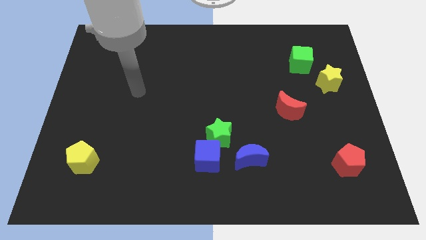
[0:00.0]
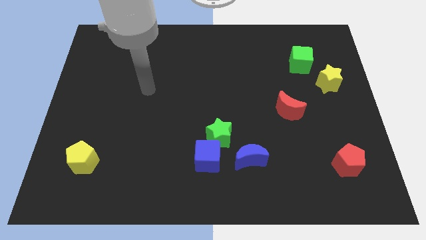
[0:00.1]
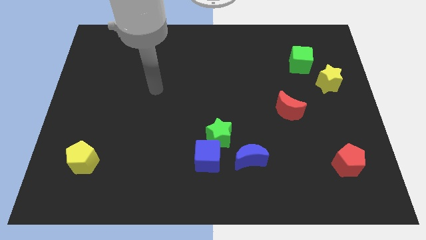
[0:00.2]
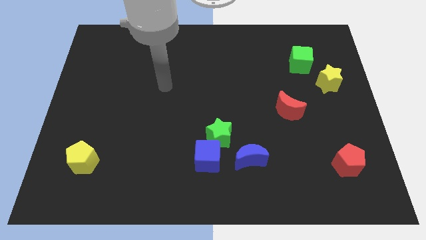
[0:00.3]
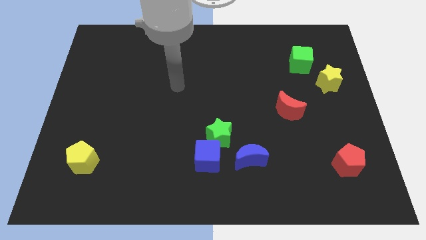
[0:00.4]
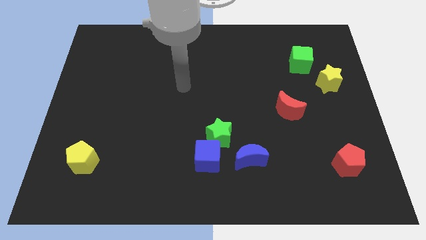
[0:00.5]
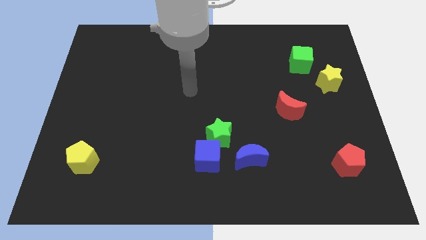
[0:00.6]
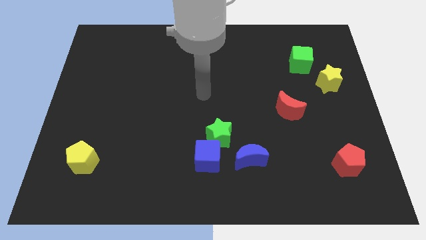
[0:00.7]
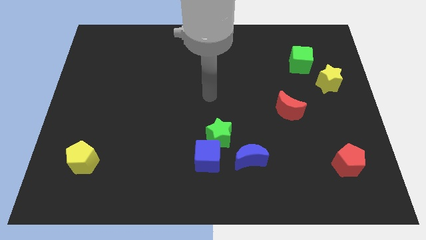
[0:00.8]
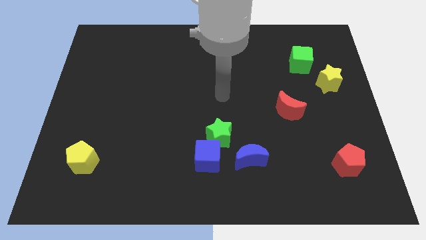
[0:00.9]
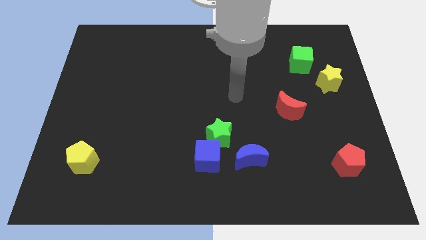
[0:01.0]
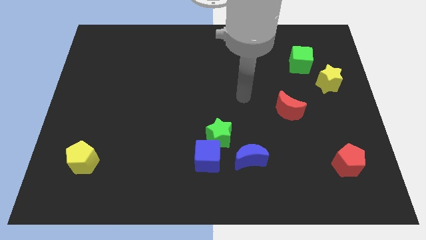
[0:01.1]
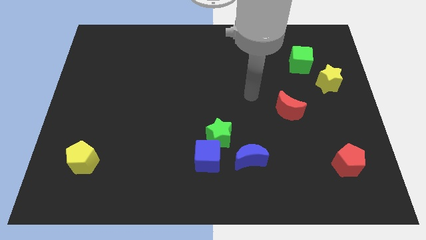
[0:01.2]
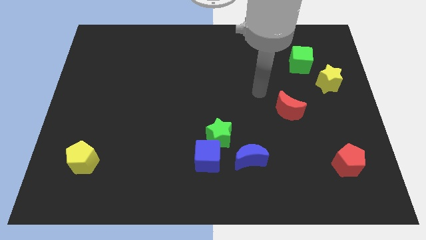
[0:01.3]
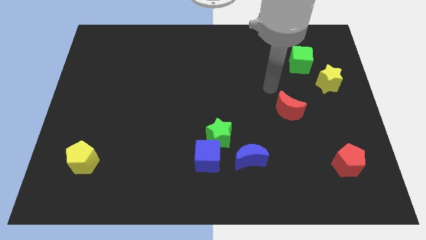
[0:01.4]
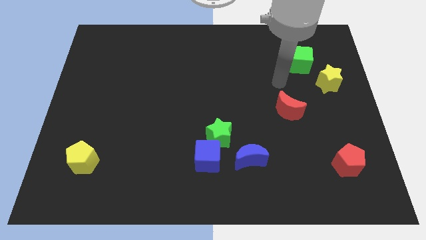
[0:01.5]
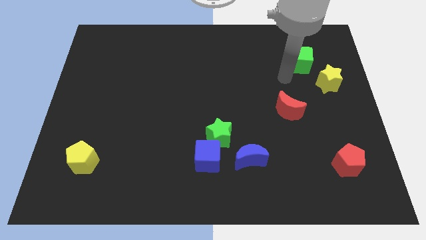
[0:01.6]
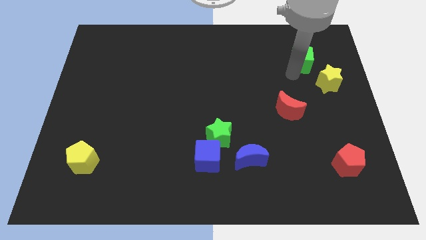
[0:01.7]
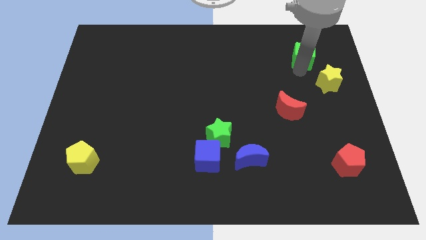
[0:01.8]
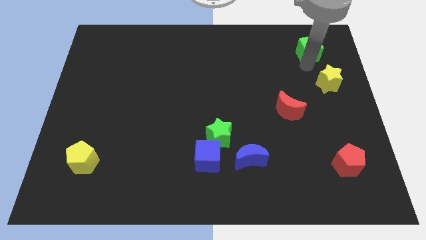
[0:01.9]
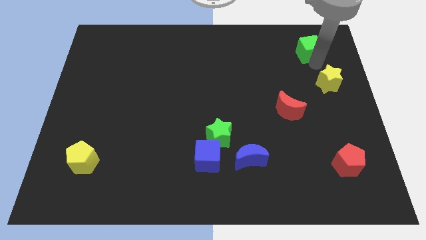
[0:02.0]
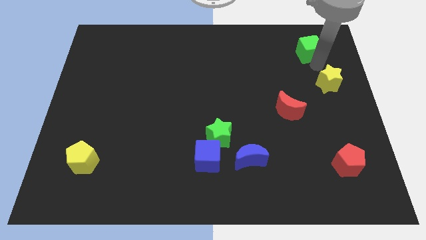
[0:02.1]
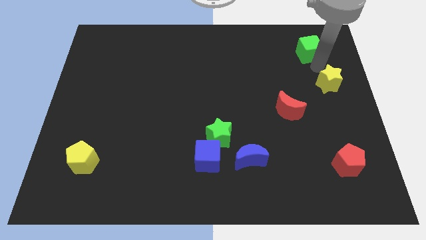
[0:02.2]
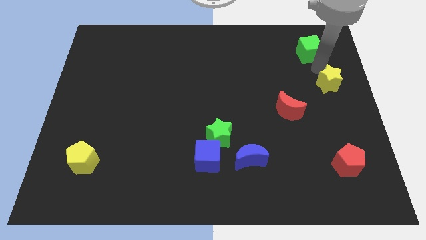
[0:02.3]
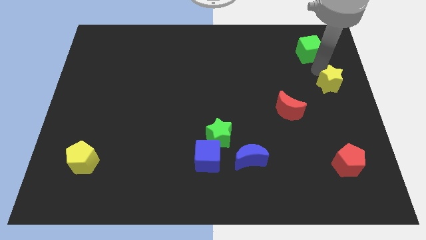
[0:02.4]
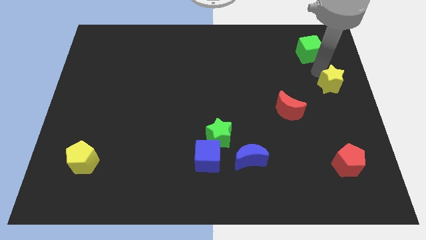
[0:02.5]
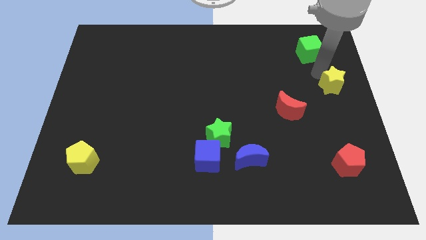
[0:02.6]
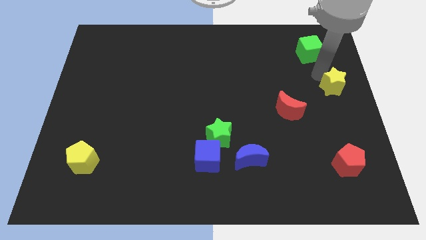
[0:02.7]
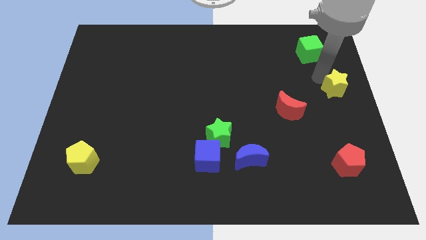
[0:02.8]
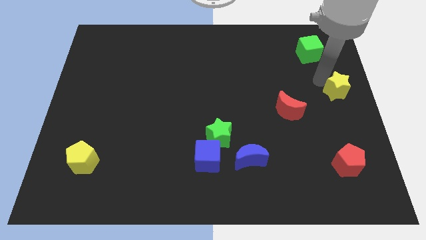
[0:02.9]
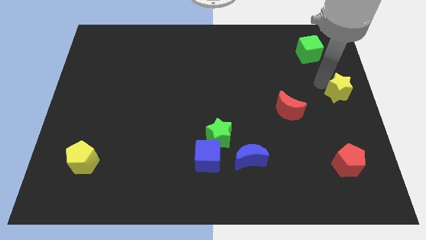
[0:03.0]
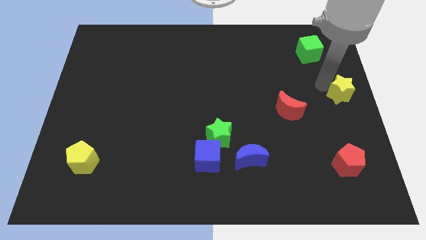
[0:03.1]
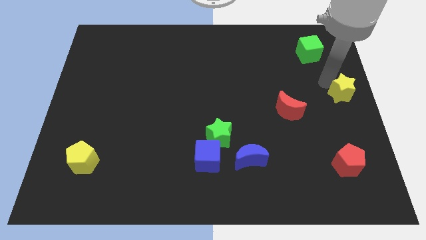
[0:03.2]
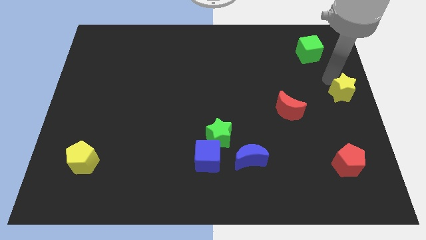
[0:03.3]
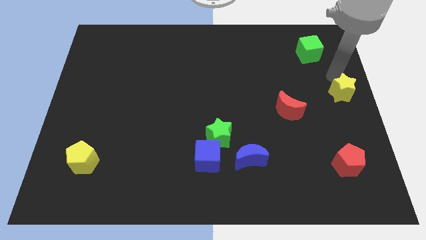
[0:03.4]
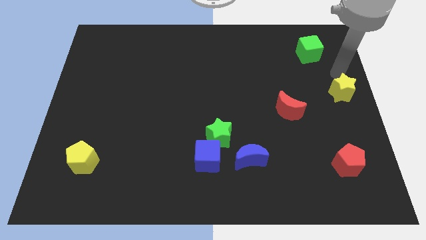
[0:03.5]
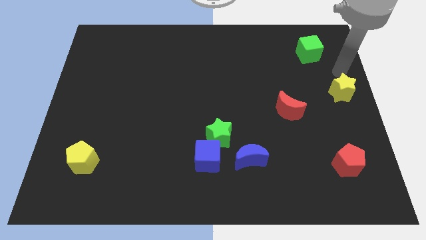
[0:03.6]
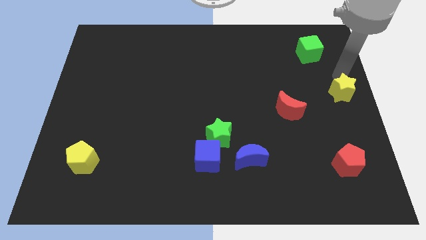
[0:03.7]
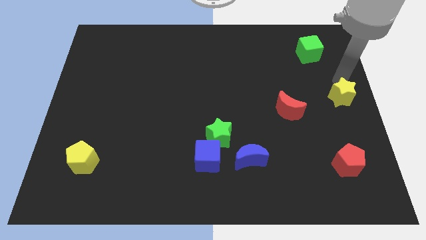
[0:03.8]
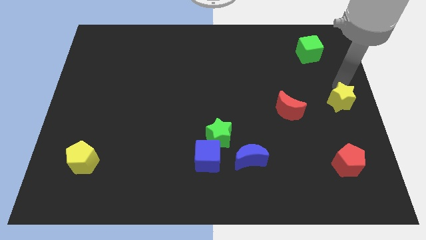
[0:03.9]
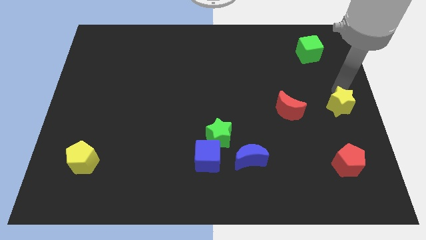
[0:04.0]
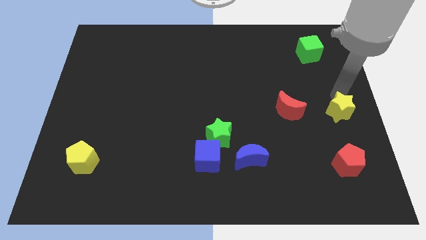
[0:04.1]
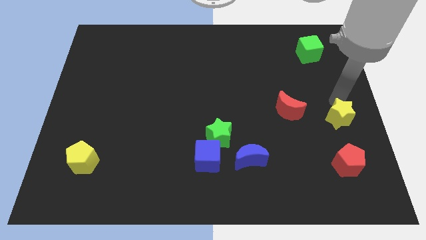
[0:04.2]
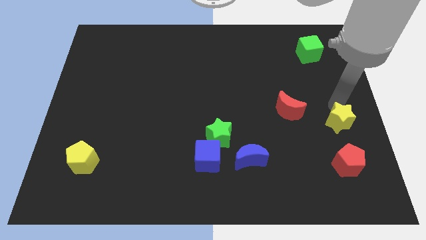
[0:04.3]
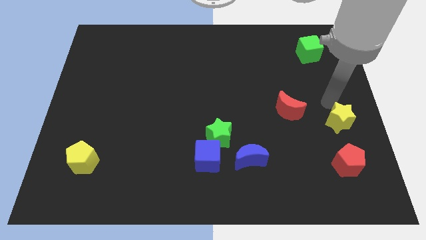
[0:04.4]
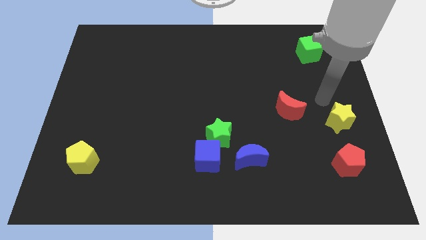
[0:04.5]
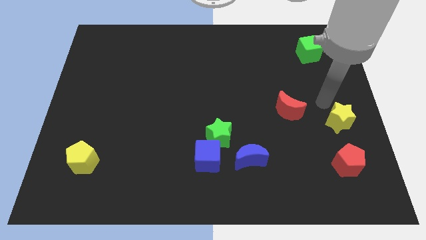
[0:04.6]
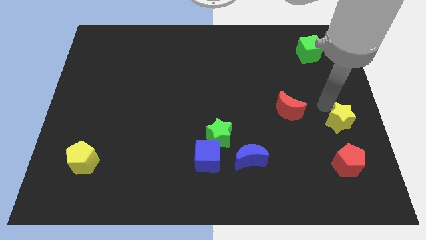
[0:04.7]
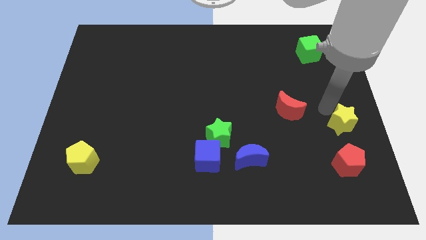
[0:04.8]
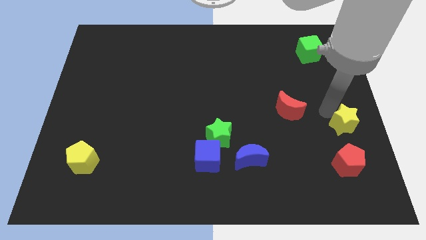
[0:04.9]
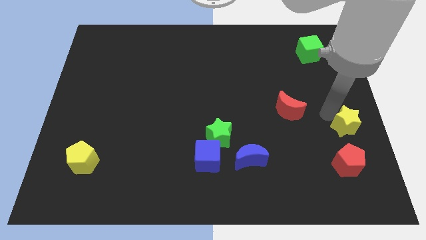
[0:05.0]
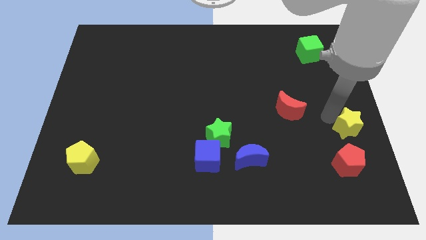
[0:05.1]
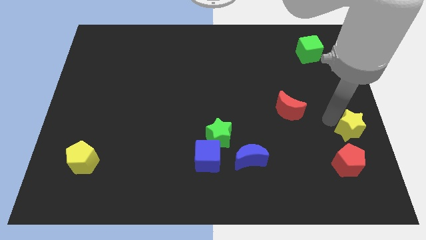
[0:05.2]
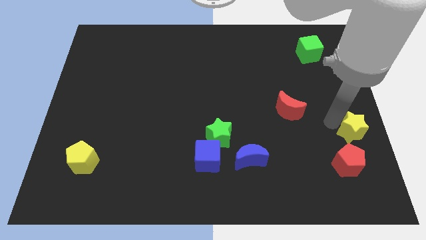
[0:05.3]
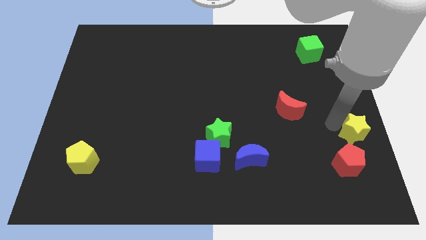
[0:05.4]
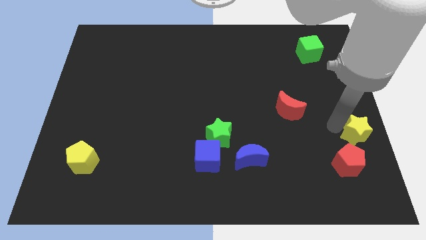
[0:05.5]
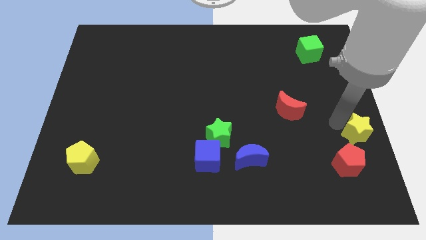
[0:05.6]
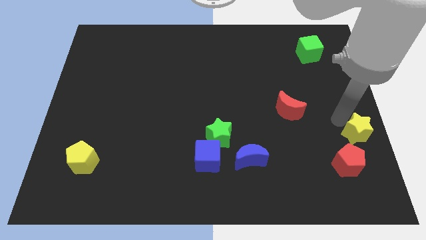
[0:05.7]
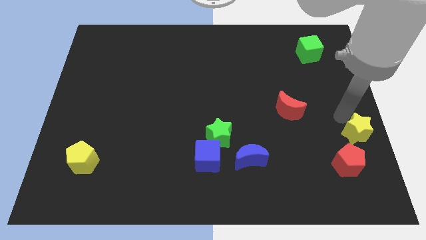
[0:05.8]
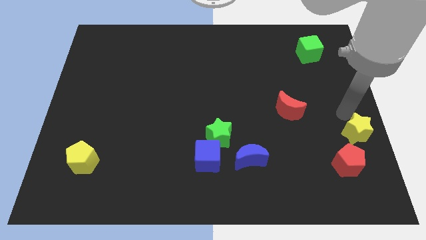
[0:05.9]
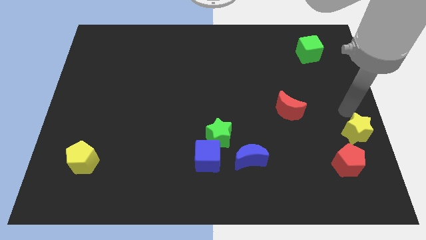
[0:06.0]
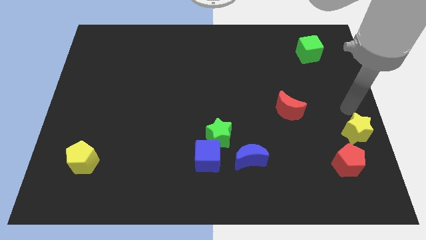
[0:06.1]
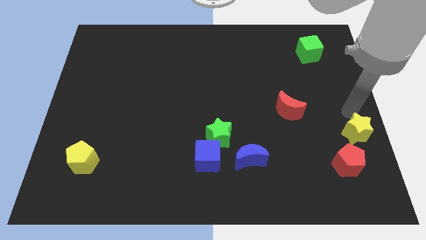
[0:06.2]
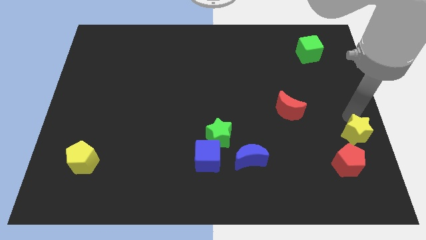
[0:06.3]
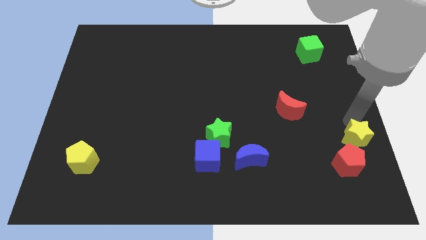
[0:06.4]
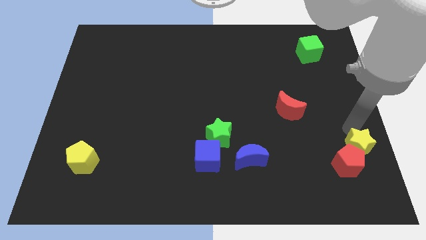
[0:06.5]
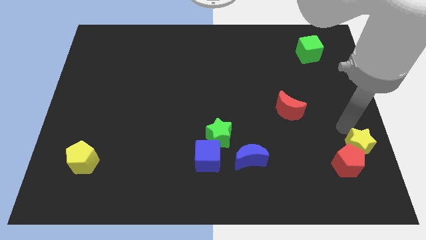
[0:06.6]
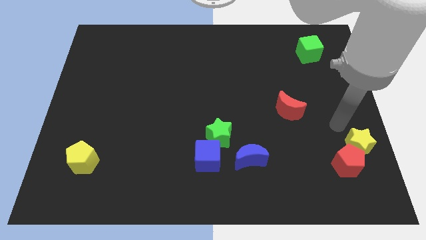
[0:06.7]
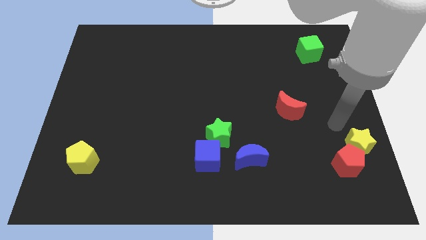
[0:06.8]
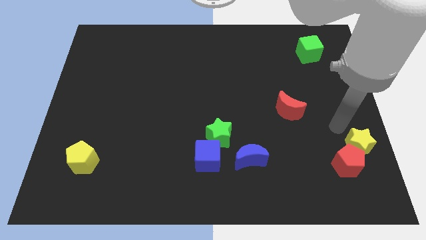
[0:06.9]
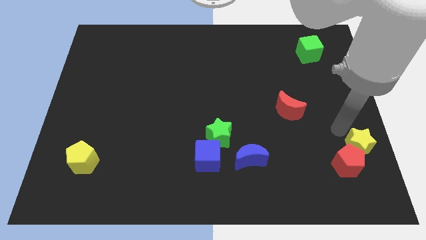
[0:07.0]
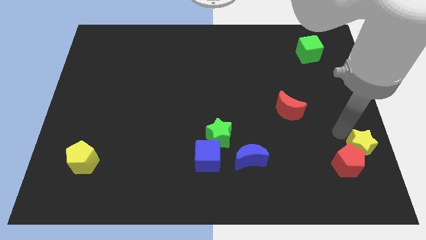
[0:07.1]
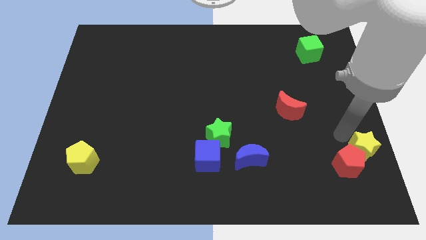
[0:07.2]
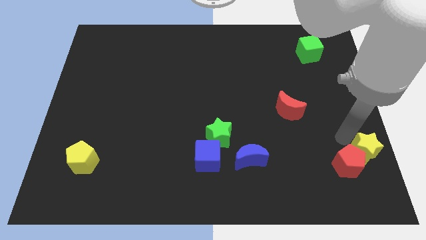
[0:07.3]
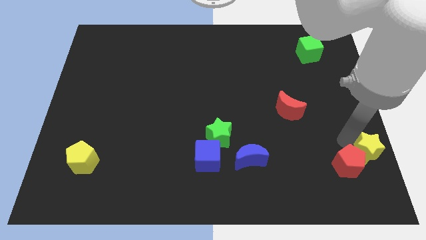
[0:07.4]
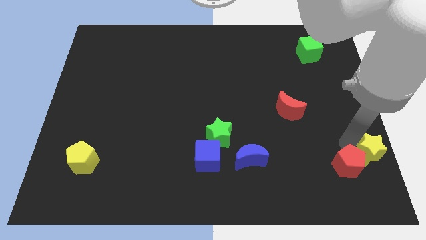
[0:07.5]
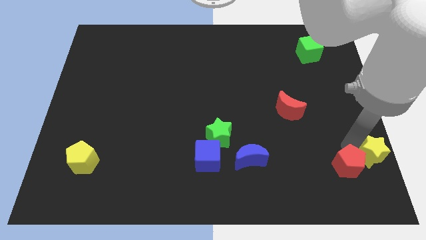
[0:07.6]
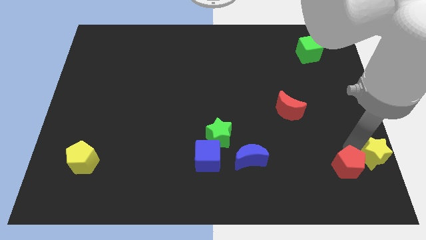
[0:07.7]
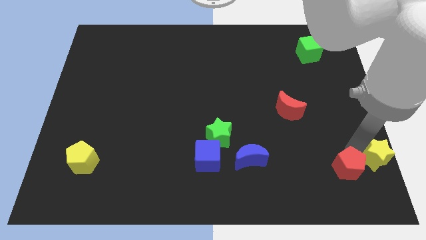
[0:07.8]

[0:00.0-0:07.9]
slide the yellow star to the lower right corner
